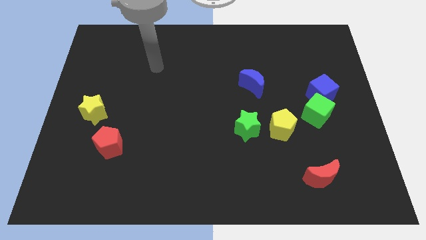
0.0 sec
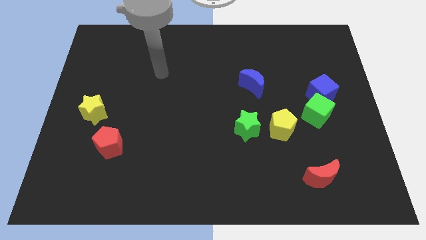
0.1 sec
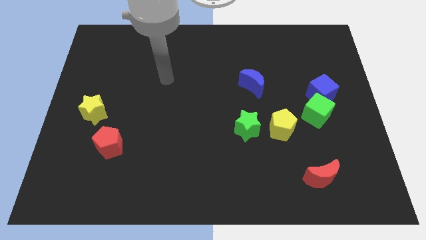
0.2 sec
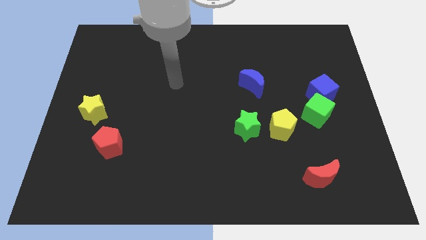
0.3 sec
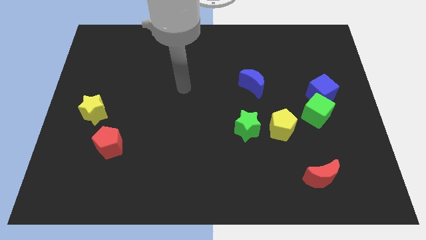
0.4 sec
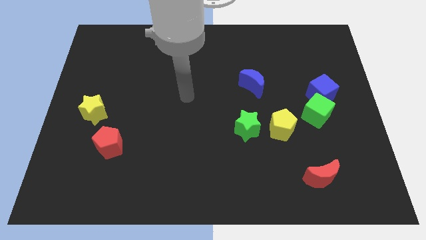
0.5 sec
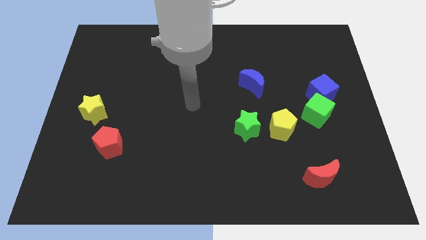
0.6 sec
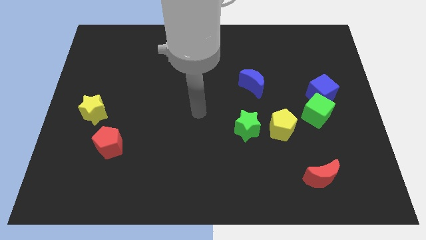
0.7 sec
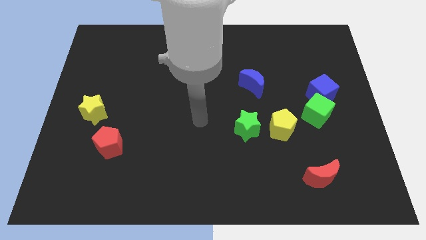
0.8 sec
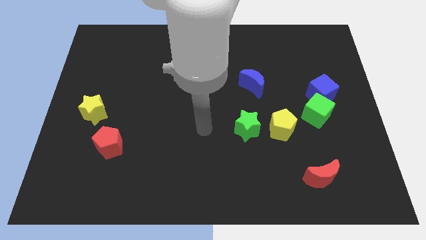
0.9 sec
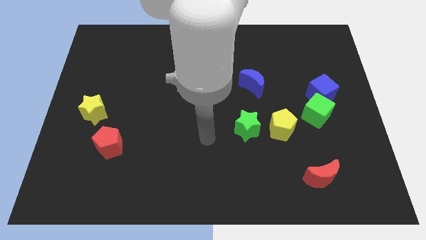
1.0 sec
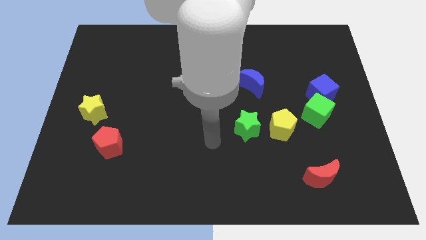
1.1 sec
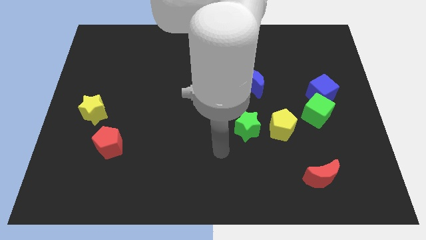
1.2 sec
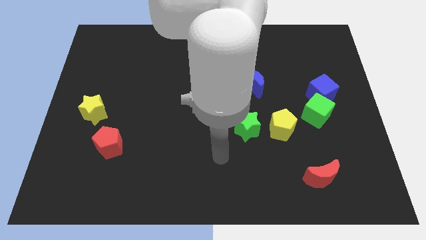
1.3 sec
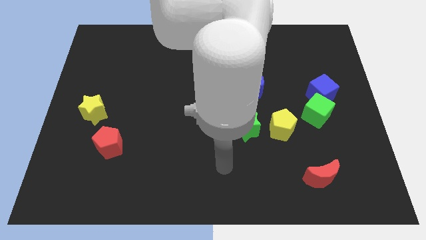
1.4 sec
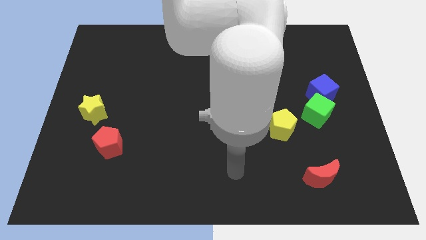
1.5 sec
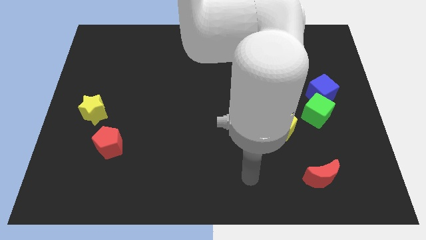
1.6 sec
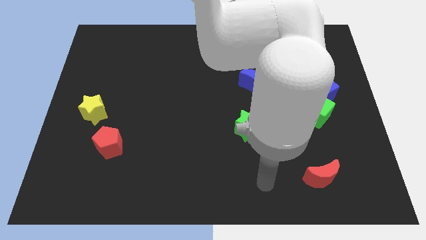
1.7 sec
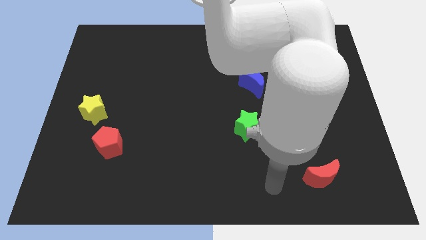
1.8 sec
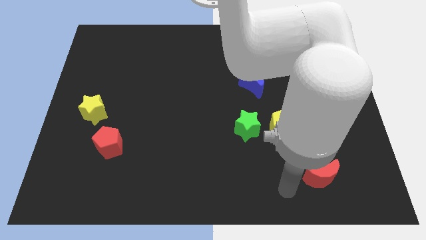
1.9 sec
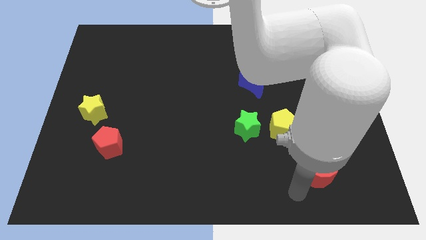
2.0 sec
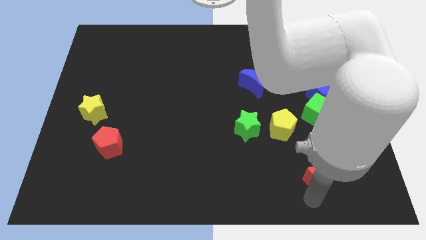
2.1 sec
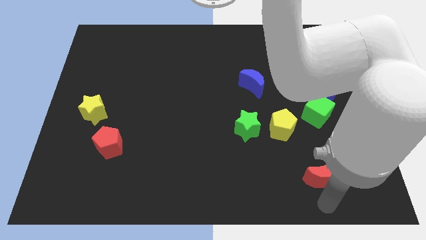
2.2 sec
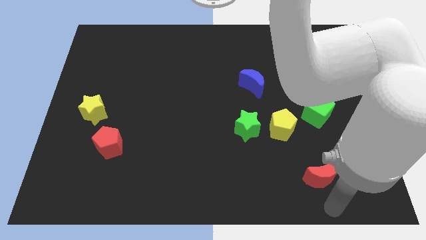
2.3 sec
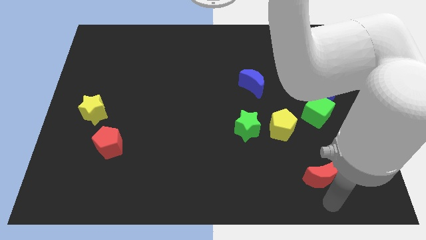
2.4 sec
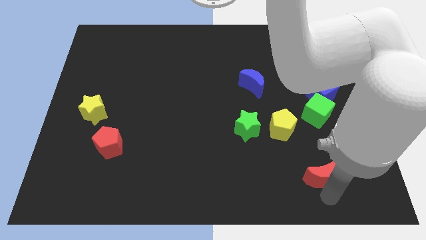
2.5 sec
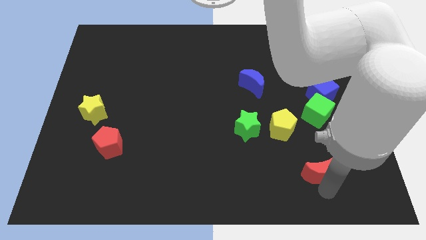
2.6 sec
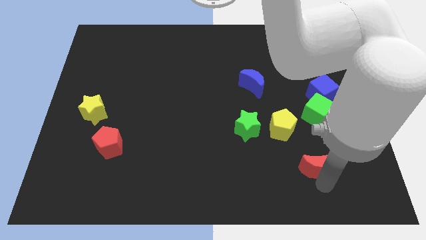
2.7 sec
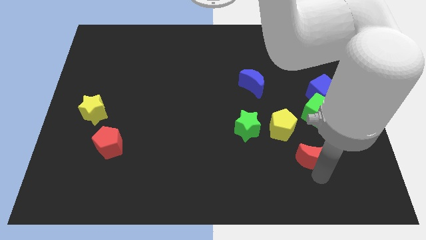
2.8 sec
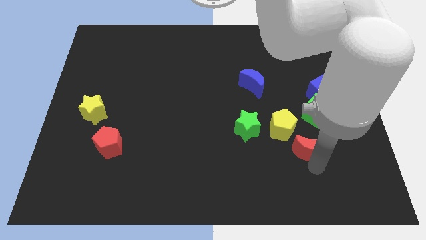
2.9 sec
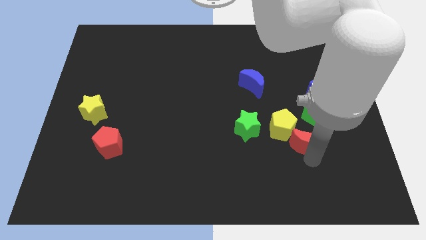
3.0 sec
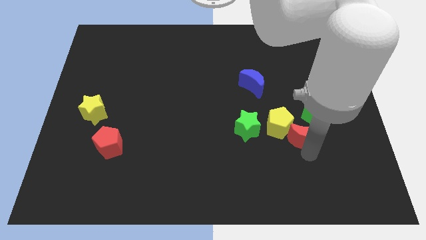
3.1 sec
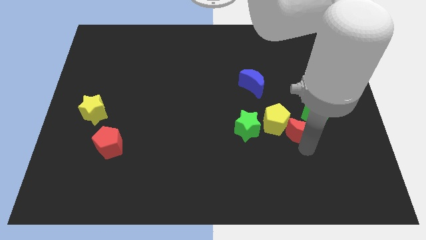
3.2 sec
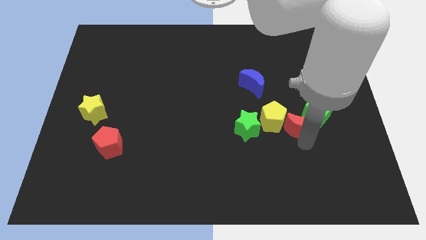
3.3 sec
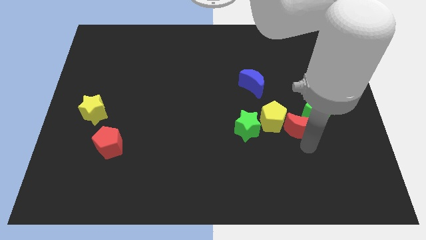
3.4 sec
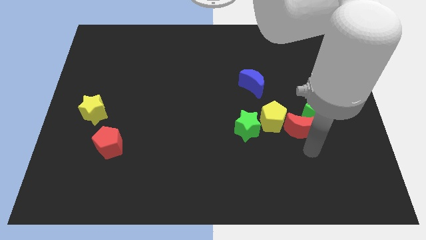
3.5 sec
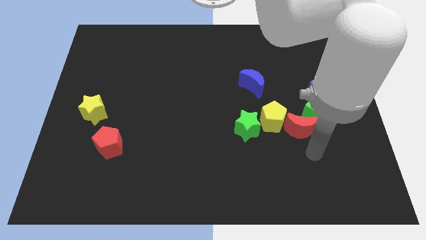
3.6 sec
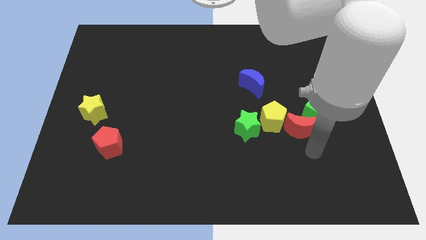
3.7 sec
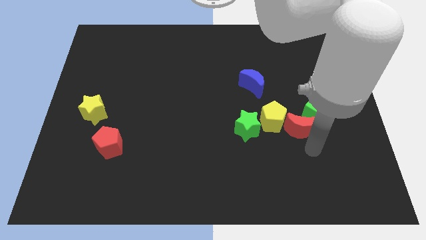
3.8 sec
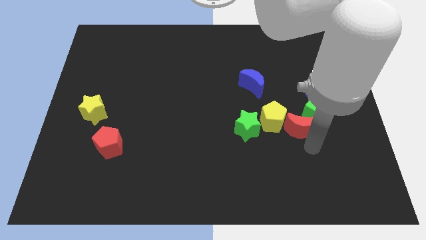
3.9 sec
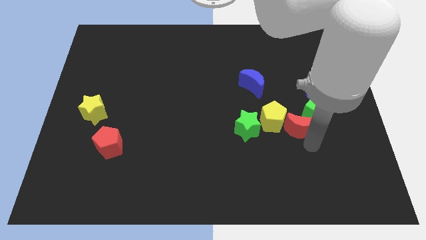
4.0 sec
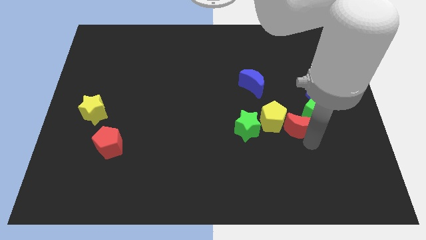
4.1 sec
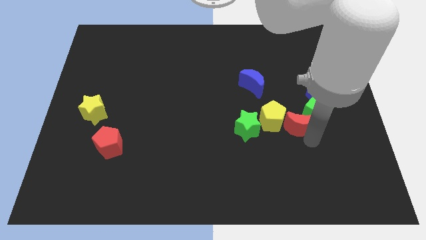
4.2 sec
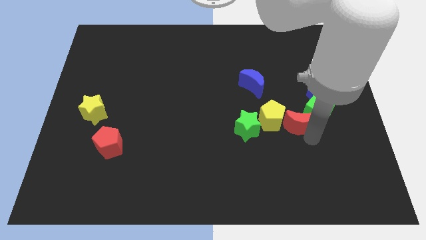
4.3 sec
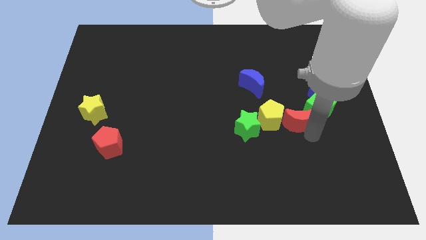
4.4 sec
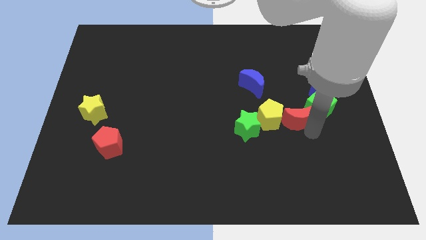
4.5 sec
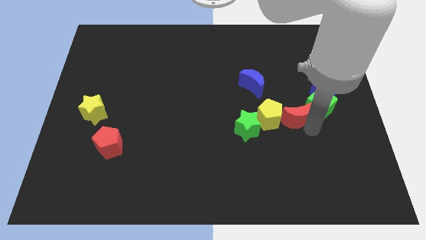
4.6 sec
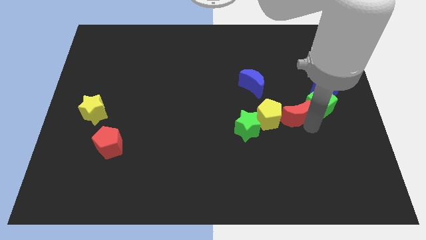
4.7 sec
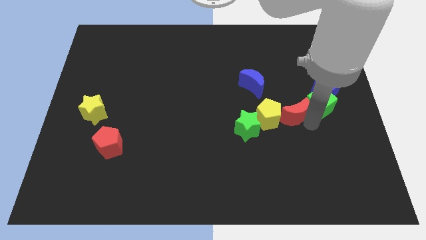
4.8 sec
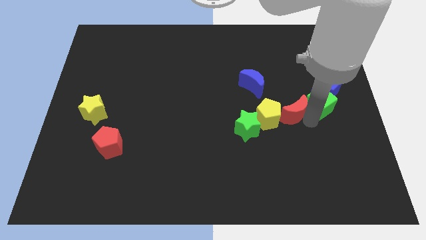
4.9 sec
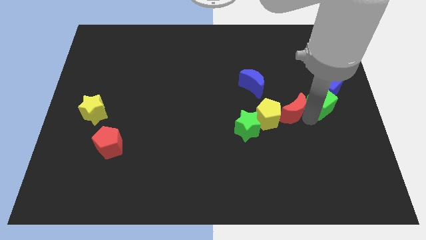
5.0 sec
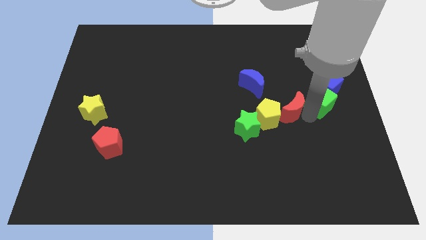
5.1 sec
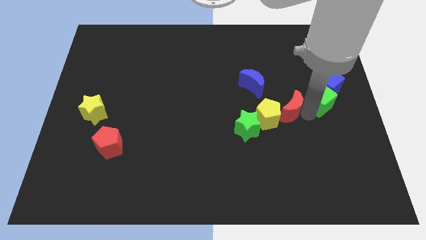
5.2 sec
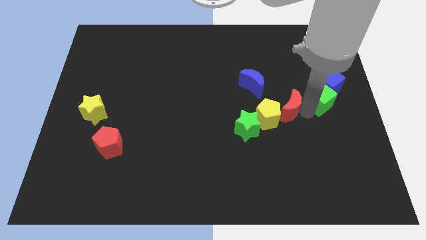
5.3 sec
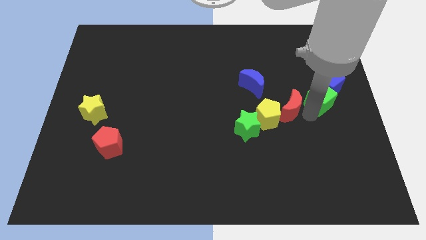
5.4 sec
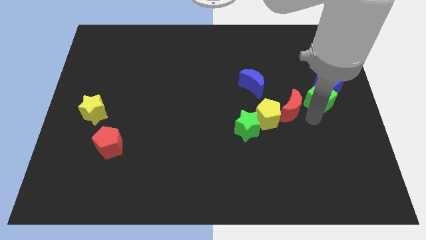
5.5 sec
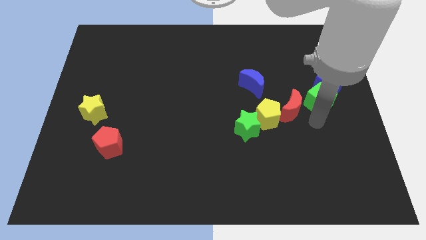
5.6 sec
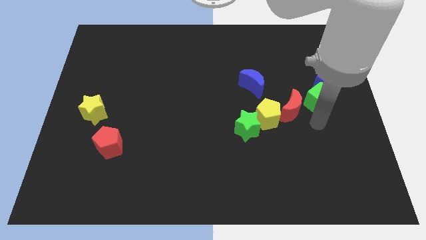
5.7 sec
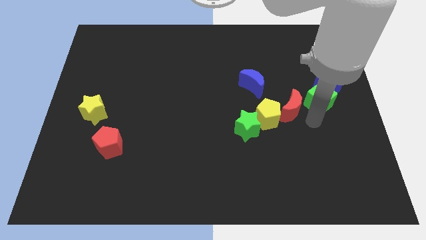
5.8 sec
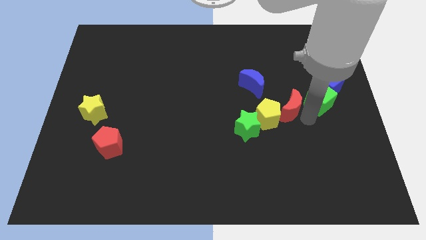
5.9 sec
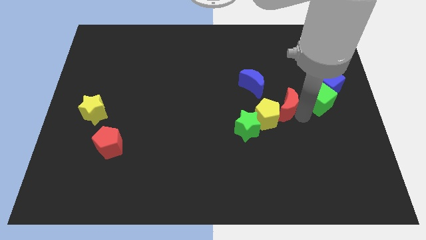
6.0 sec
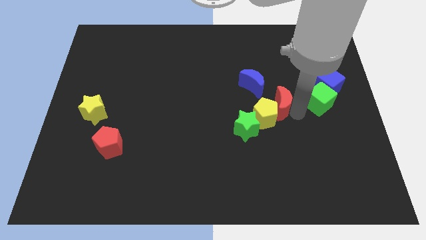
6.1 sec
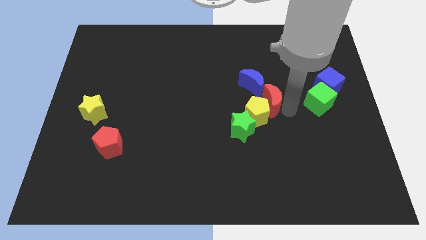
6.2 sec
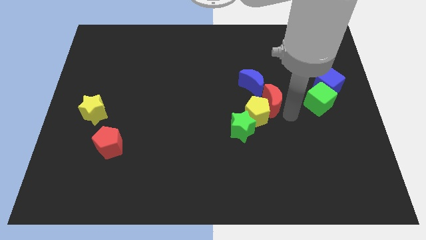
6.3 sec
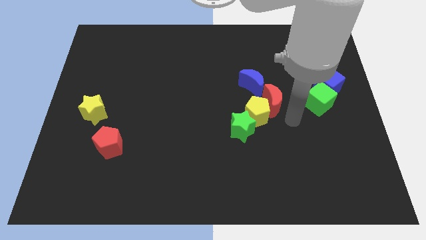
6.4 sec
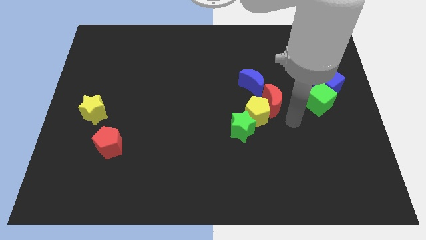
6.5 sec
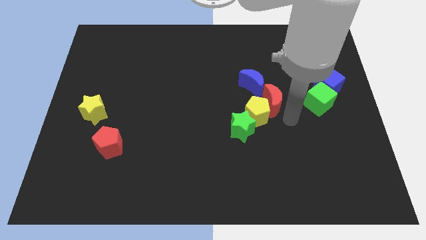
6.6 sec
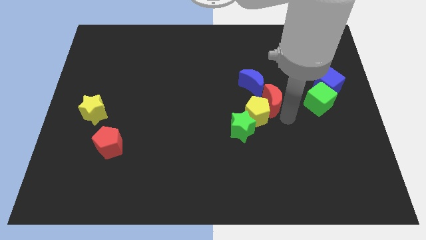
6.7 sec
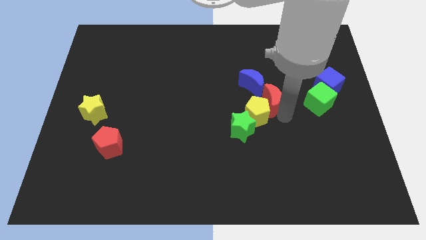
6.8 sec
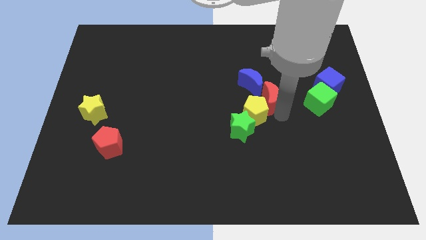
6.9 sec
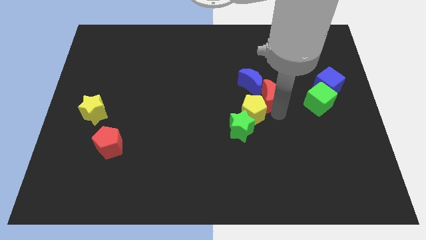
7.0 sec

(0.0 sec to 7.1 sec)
slide the red moon close to the blue moon

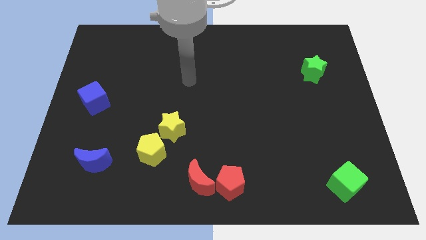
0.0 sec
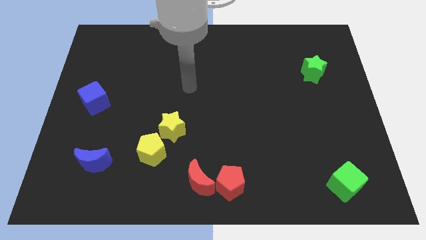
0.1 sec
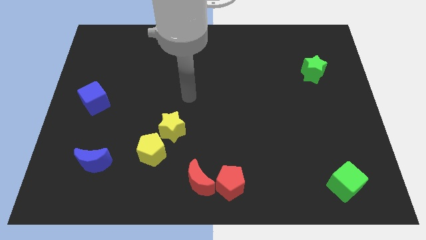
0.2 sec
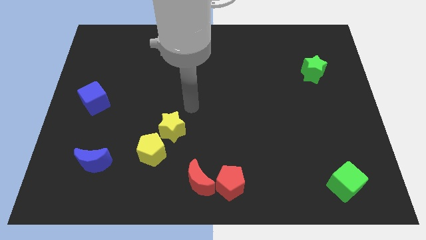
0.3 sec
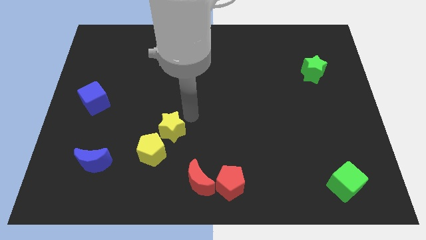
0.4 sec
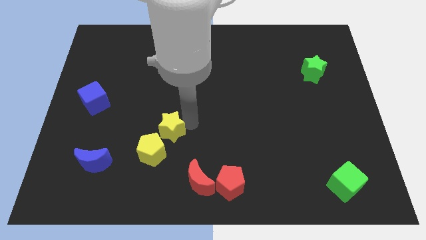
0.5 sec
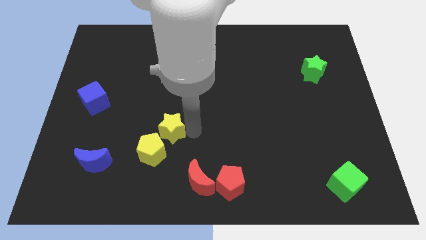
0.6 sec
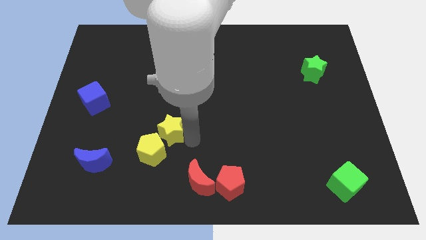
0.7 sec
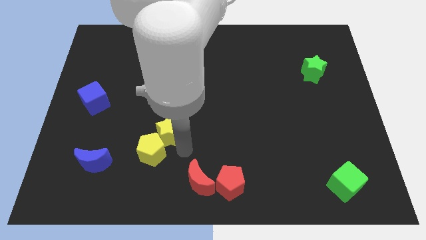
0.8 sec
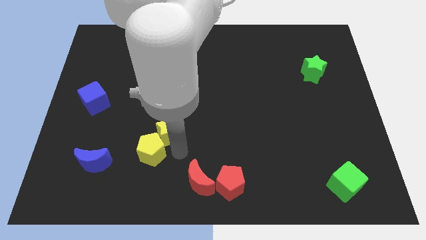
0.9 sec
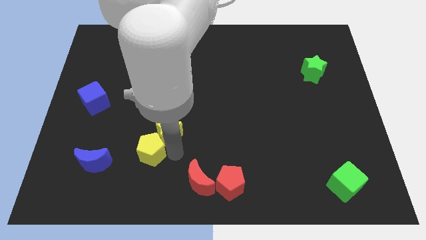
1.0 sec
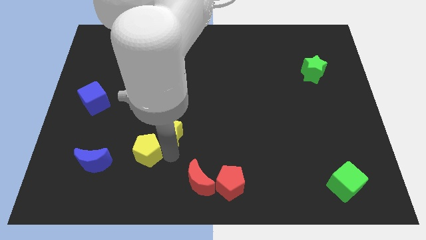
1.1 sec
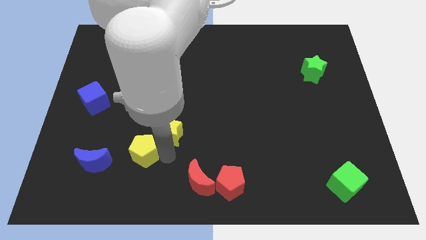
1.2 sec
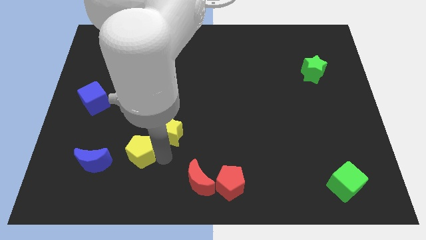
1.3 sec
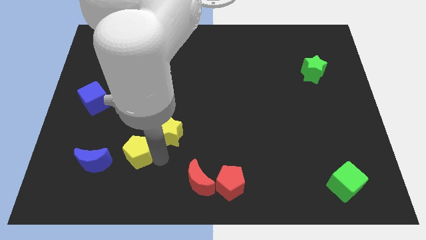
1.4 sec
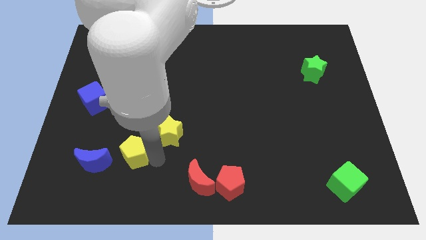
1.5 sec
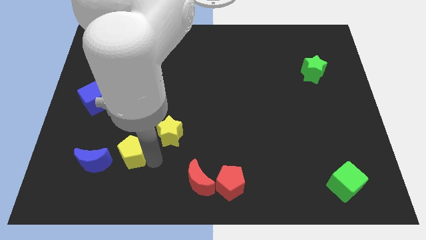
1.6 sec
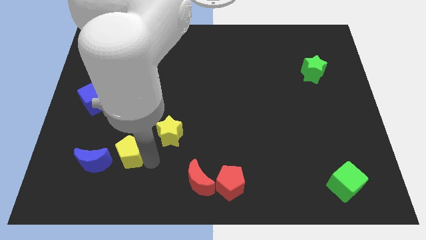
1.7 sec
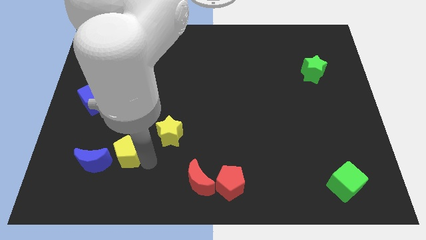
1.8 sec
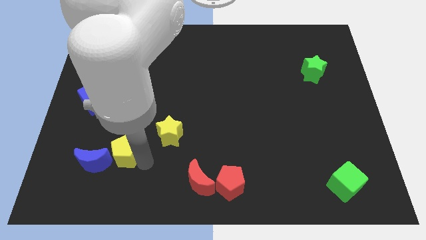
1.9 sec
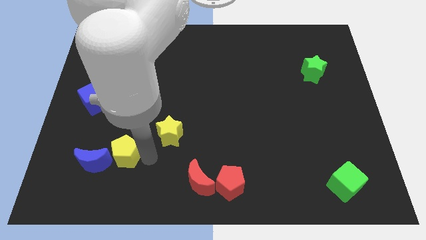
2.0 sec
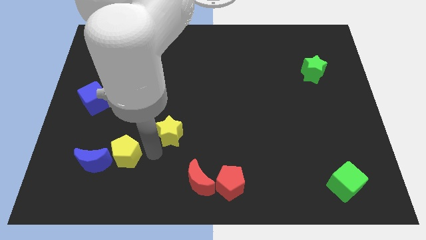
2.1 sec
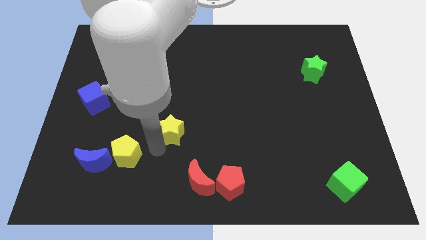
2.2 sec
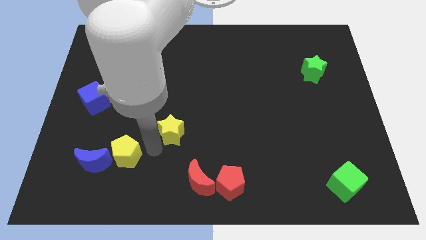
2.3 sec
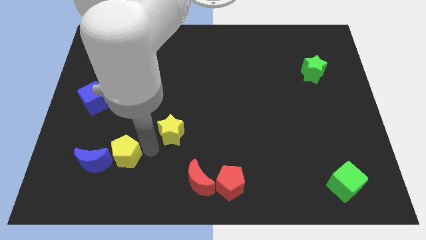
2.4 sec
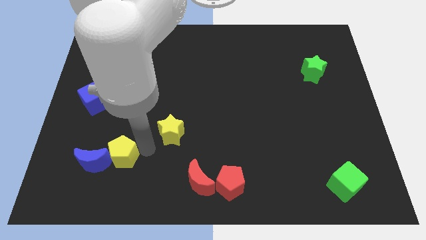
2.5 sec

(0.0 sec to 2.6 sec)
push the yellow pentagon next to the blue moon
